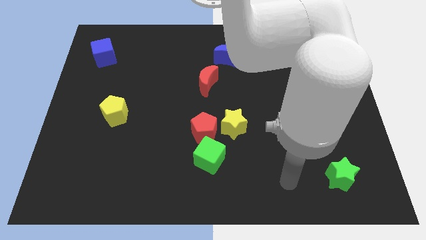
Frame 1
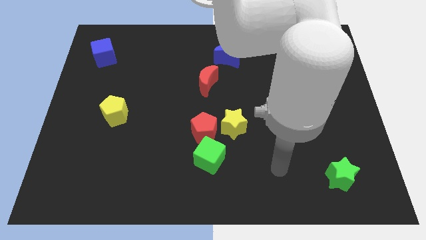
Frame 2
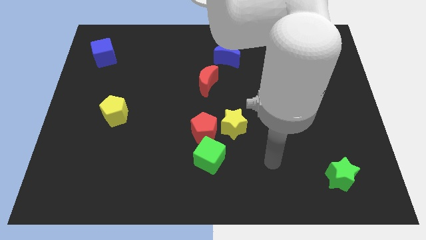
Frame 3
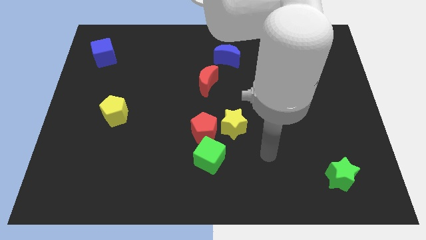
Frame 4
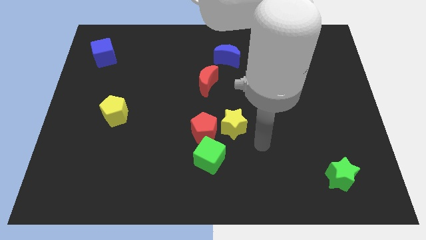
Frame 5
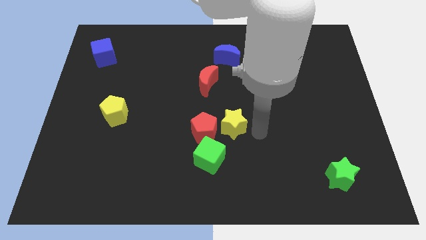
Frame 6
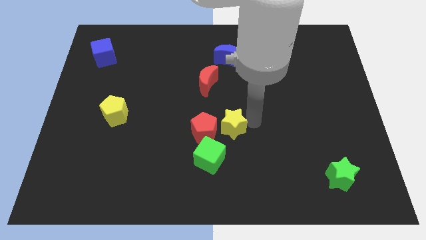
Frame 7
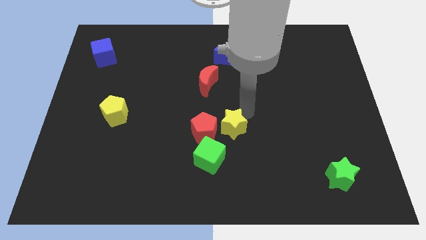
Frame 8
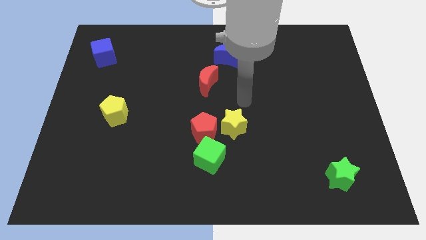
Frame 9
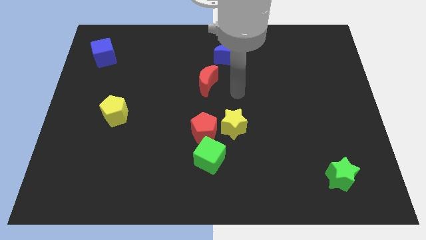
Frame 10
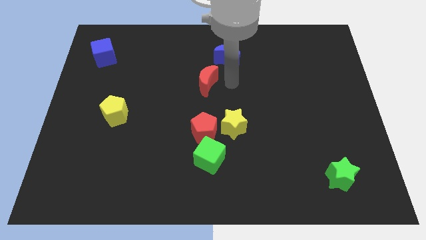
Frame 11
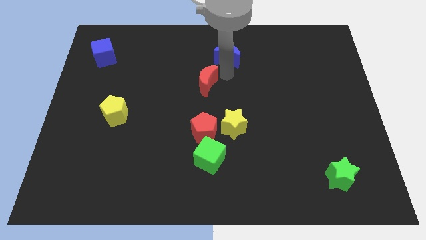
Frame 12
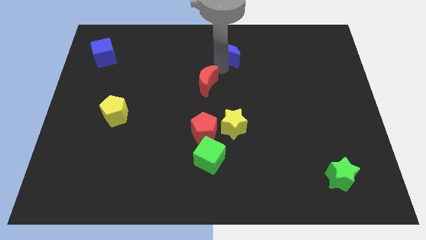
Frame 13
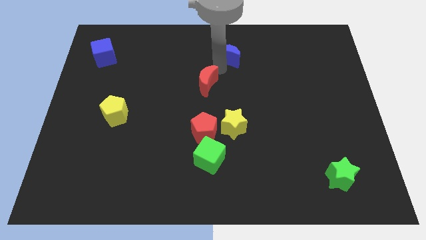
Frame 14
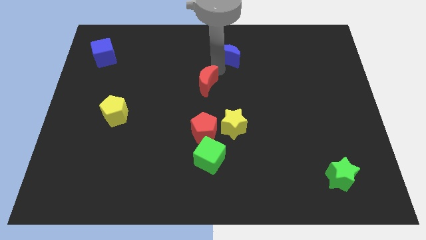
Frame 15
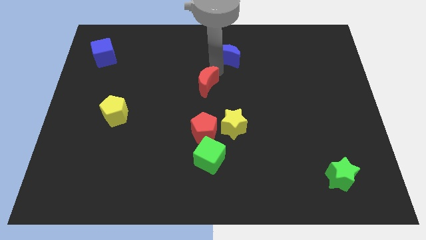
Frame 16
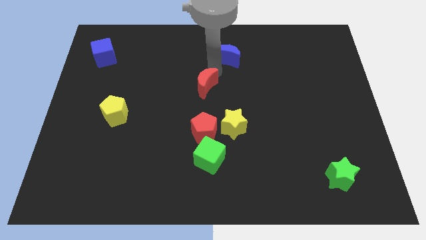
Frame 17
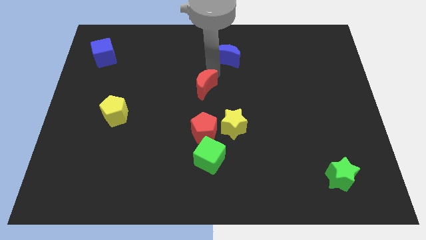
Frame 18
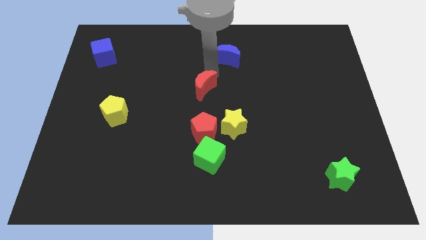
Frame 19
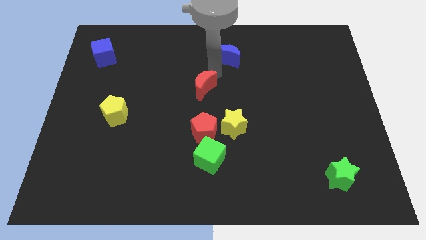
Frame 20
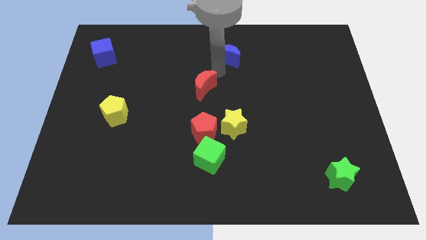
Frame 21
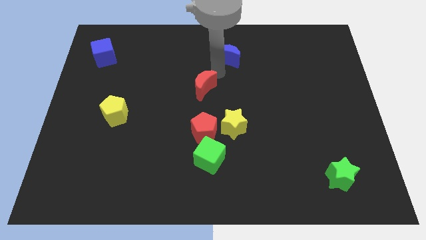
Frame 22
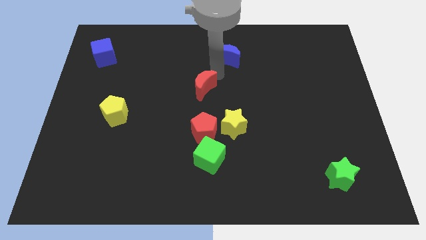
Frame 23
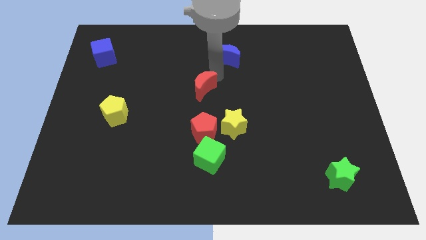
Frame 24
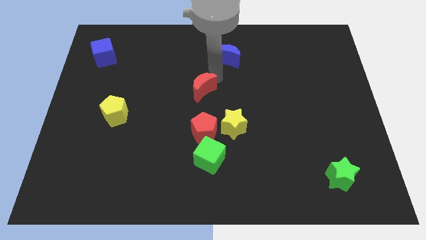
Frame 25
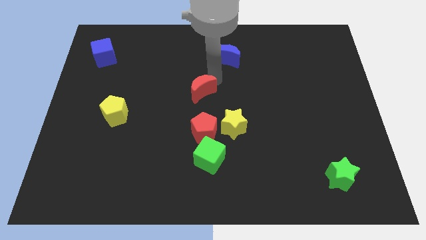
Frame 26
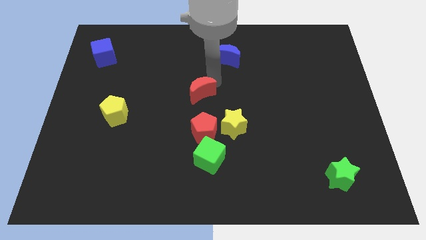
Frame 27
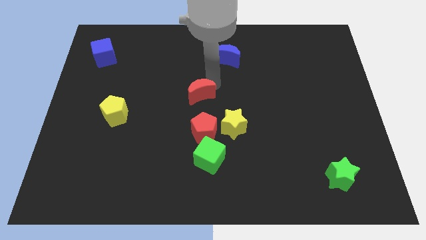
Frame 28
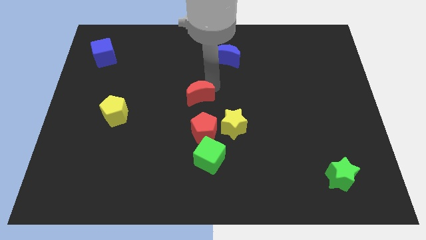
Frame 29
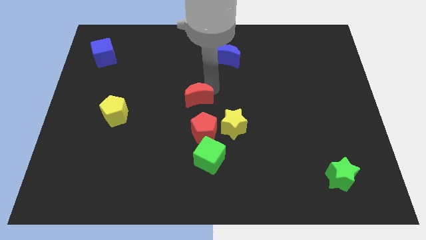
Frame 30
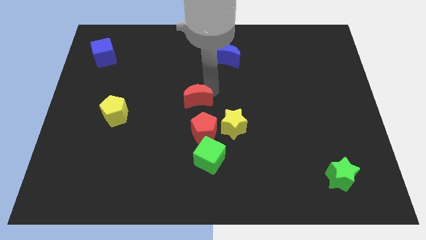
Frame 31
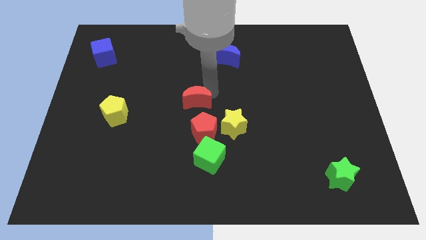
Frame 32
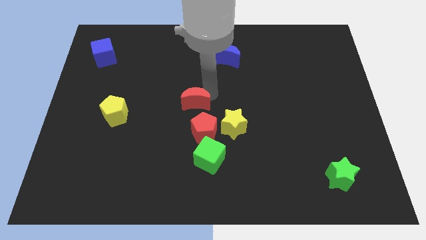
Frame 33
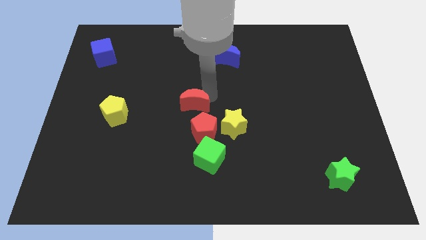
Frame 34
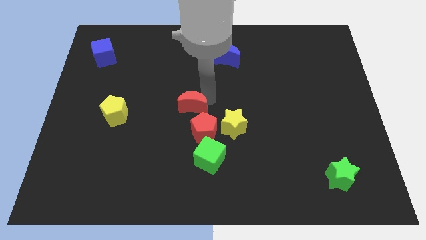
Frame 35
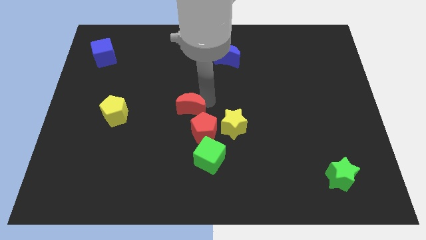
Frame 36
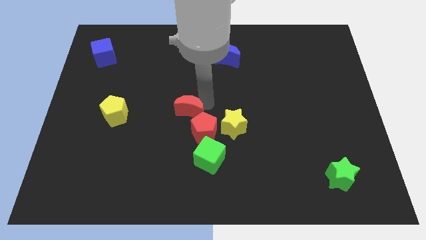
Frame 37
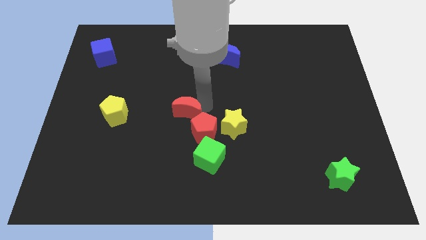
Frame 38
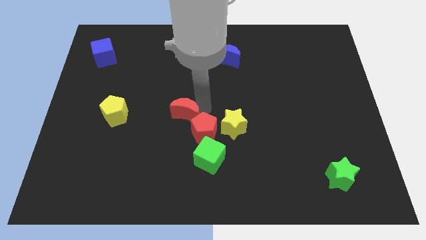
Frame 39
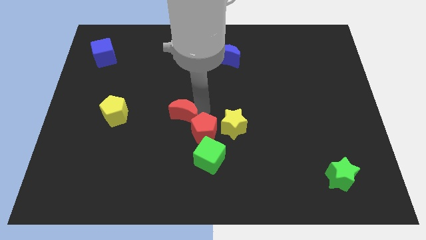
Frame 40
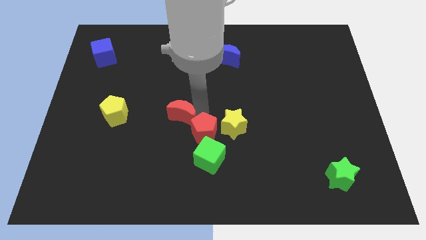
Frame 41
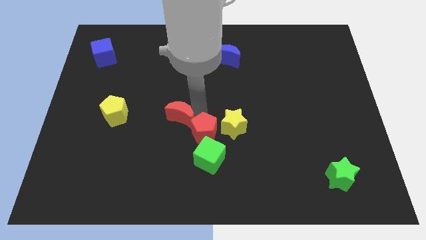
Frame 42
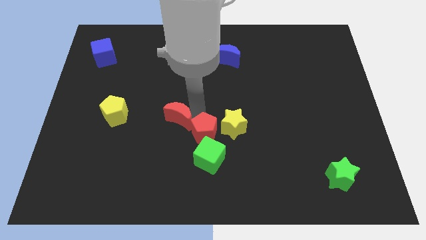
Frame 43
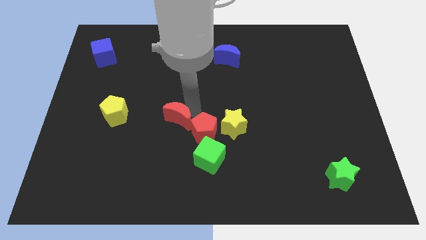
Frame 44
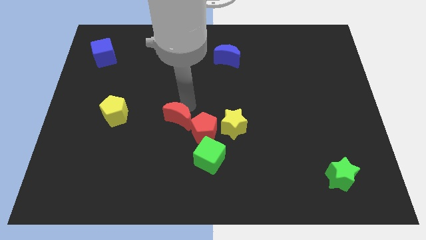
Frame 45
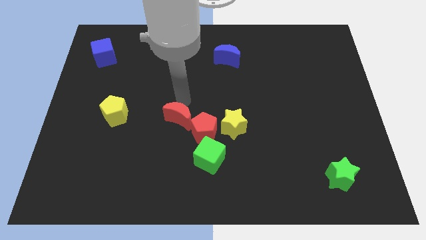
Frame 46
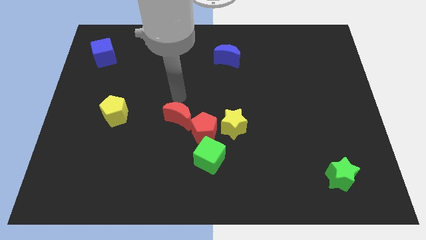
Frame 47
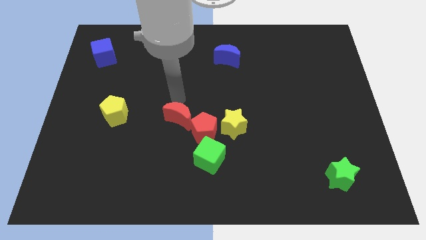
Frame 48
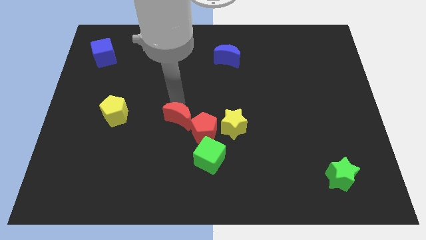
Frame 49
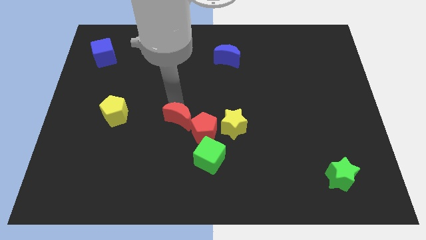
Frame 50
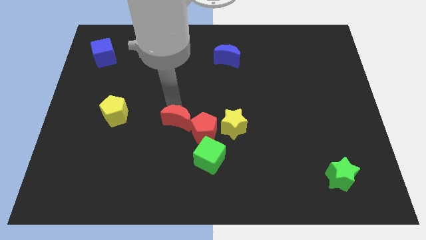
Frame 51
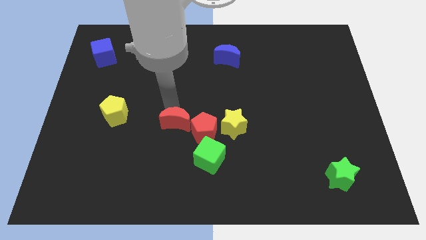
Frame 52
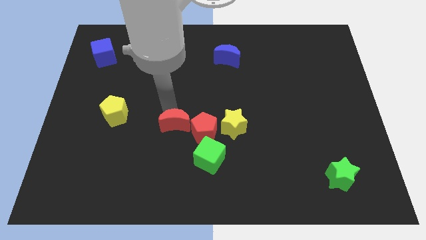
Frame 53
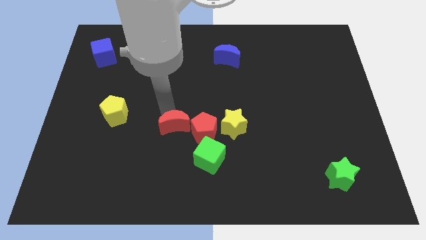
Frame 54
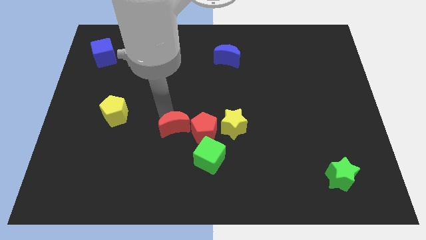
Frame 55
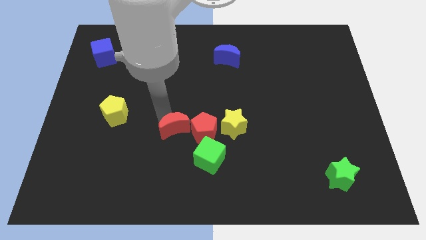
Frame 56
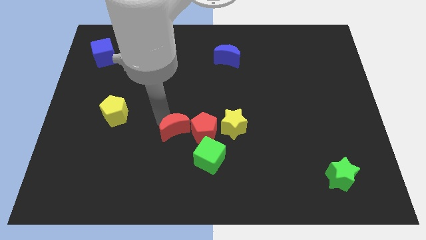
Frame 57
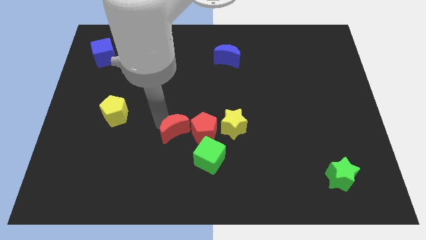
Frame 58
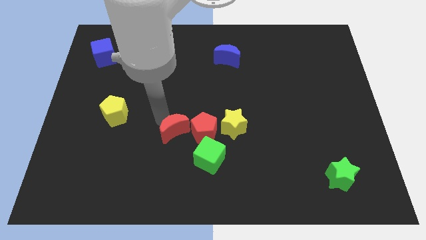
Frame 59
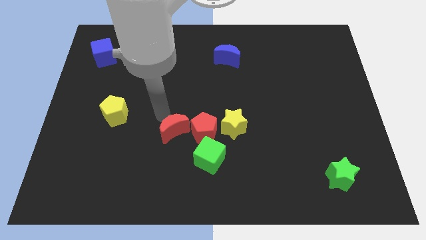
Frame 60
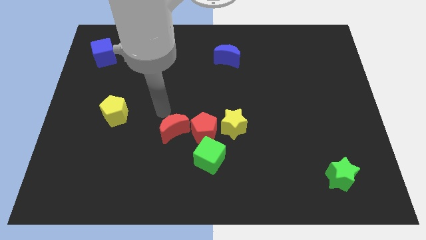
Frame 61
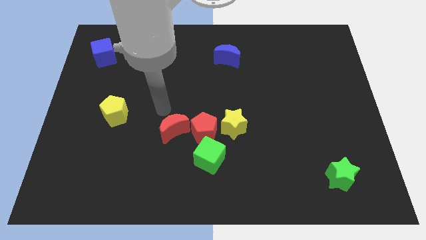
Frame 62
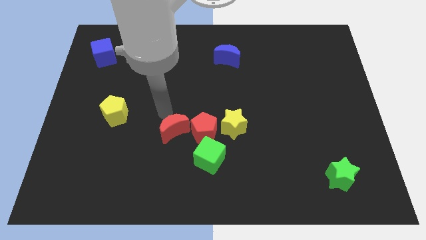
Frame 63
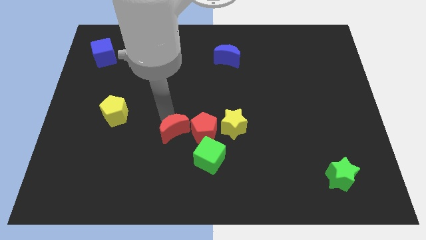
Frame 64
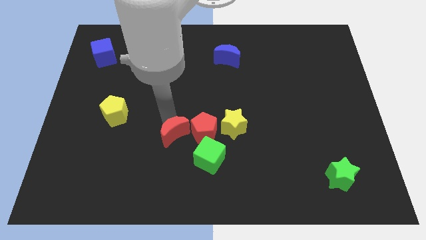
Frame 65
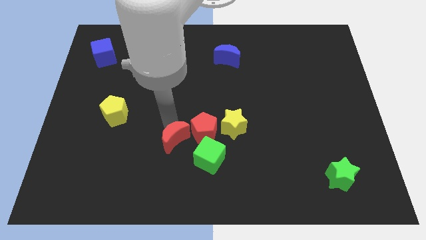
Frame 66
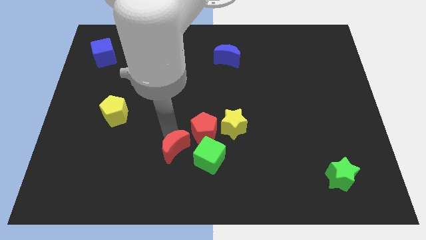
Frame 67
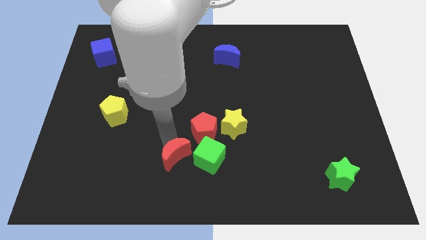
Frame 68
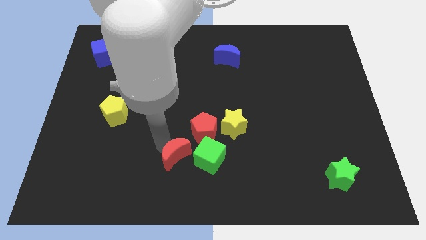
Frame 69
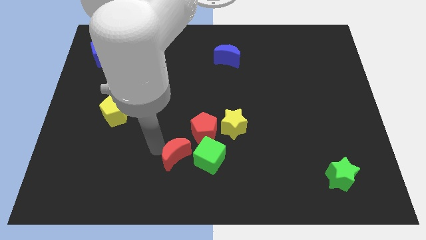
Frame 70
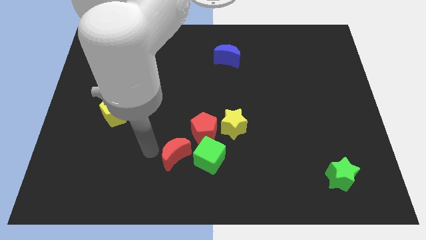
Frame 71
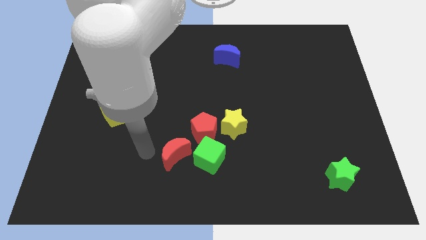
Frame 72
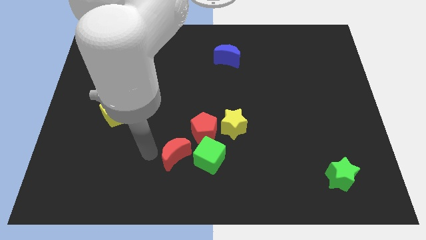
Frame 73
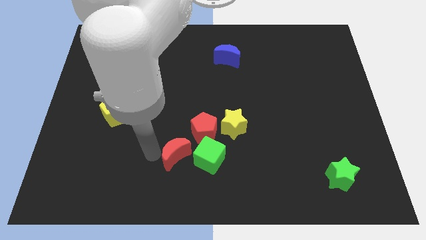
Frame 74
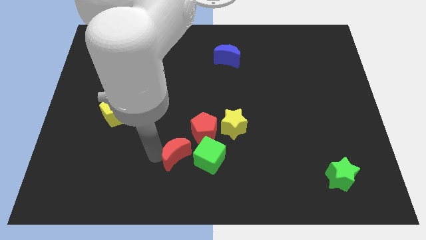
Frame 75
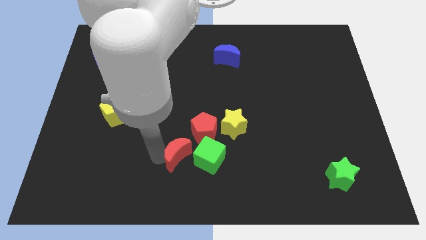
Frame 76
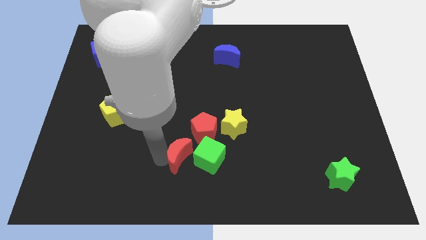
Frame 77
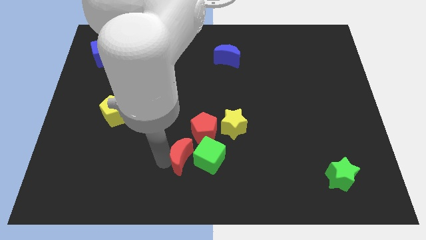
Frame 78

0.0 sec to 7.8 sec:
slide the red moon next to the green cube

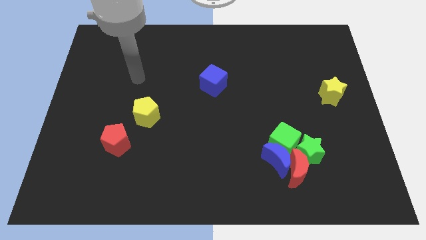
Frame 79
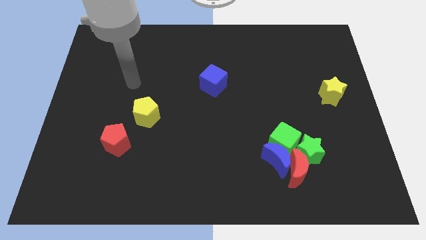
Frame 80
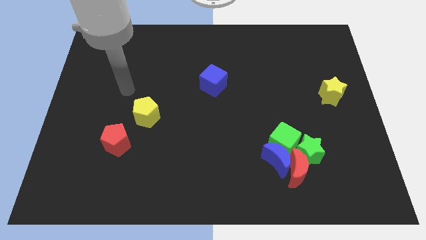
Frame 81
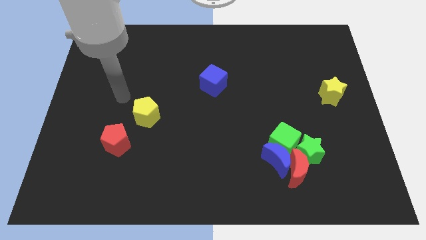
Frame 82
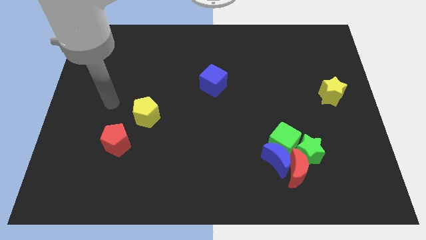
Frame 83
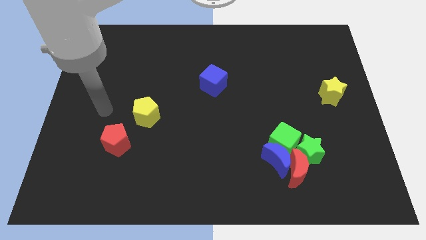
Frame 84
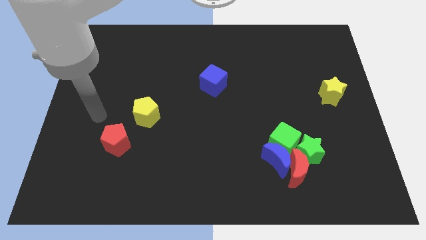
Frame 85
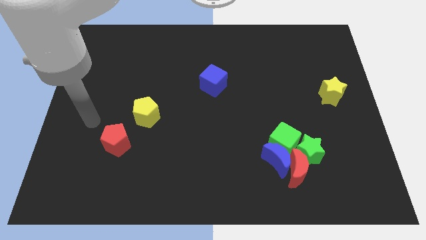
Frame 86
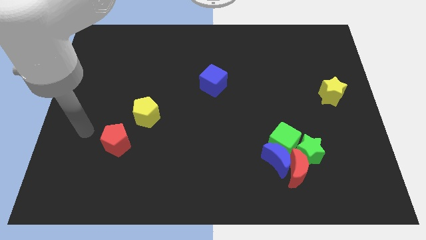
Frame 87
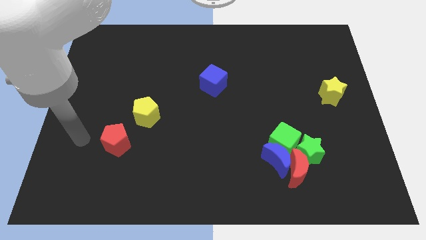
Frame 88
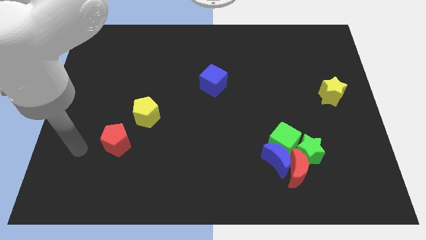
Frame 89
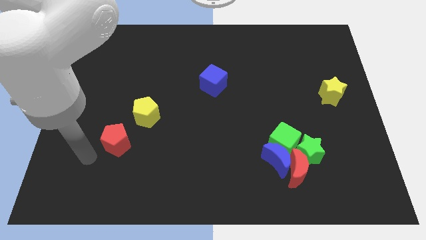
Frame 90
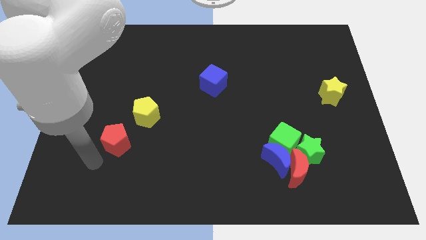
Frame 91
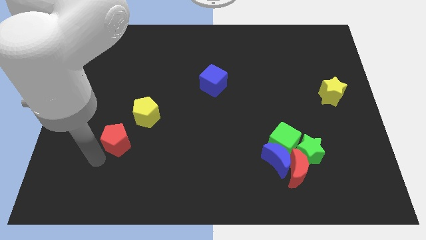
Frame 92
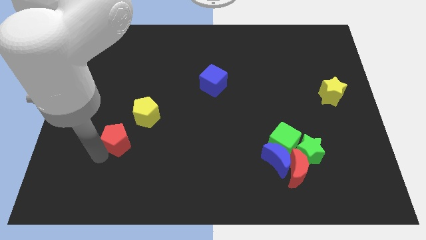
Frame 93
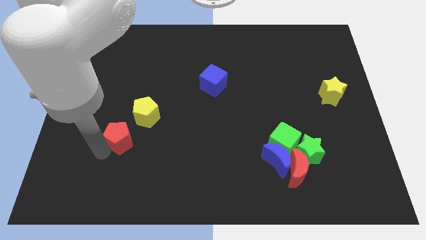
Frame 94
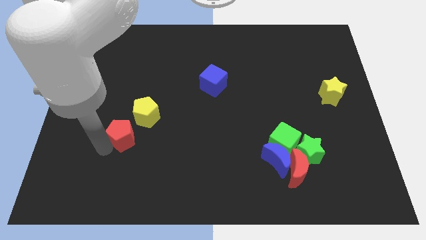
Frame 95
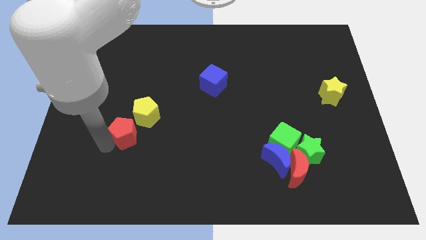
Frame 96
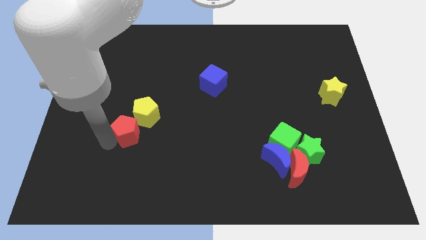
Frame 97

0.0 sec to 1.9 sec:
put the red pentagon towards the yellow pentagon
